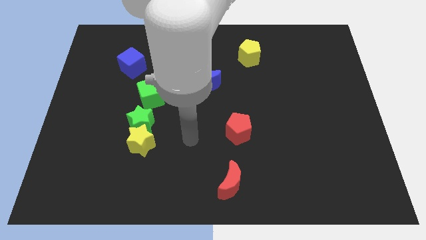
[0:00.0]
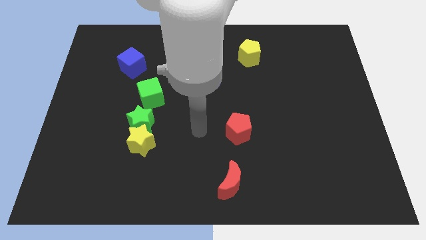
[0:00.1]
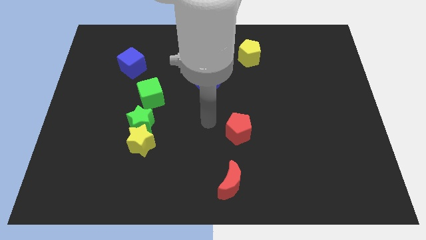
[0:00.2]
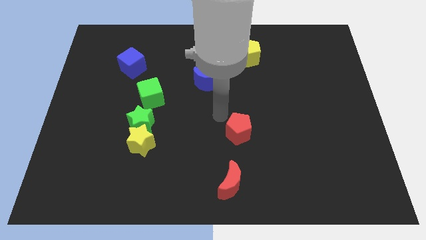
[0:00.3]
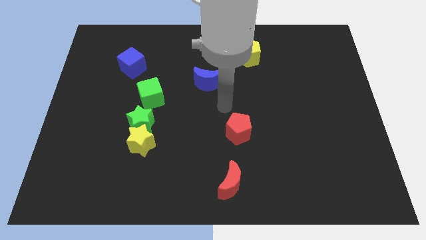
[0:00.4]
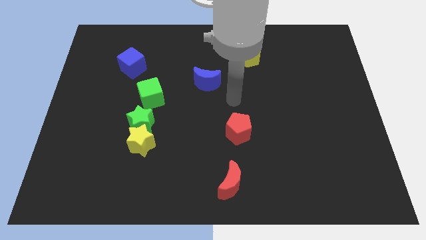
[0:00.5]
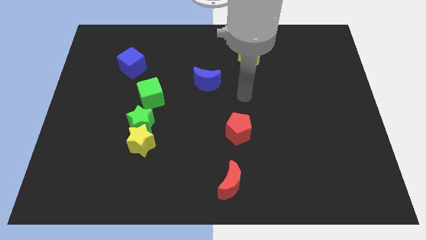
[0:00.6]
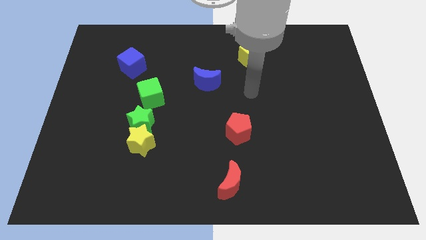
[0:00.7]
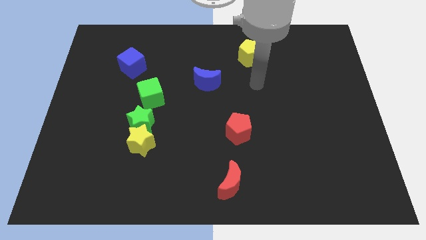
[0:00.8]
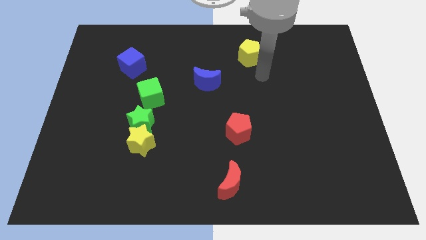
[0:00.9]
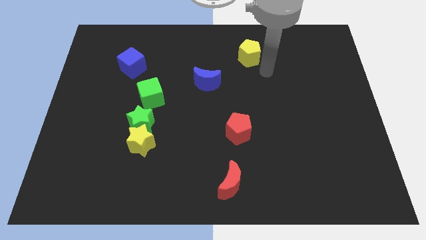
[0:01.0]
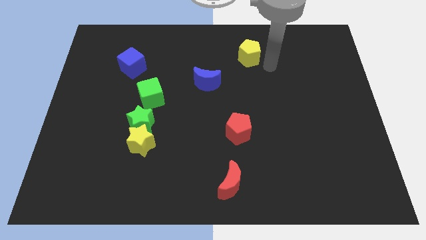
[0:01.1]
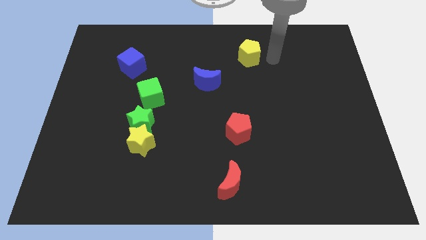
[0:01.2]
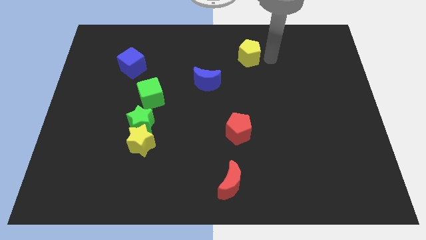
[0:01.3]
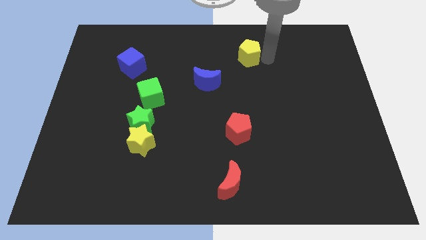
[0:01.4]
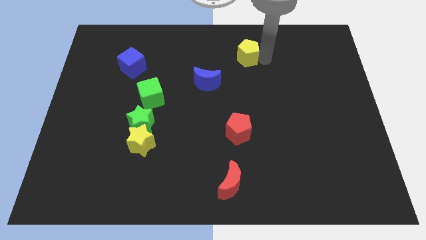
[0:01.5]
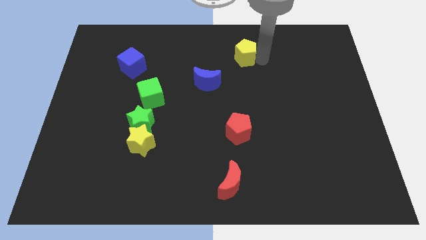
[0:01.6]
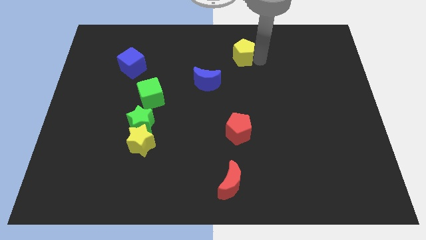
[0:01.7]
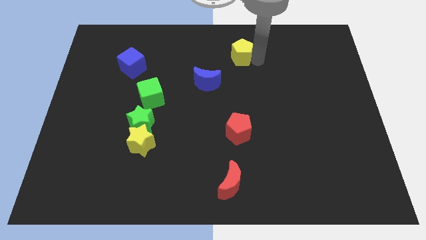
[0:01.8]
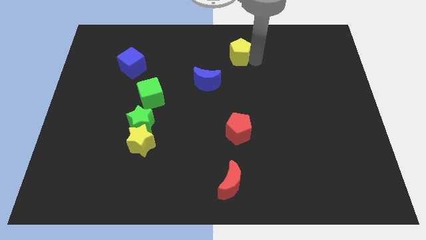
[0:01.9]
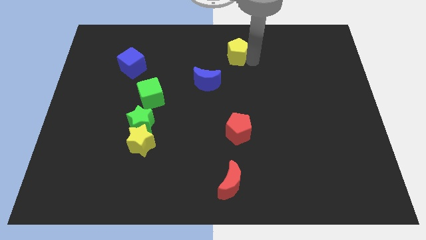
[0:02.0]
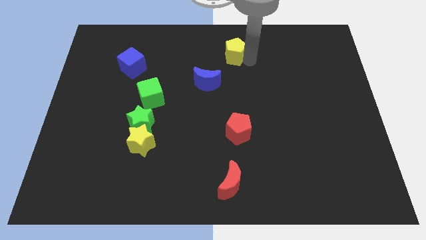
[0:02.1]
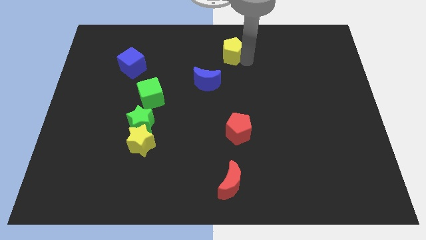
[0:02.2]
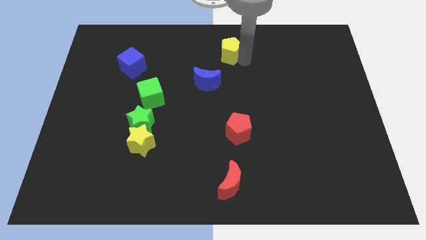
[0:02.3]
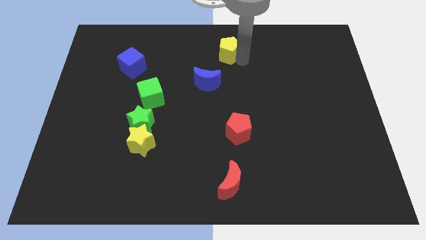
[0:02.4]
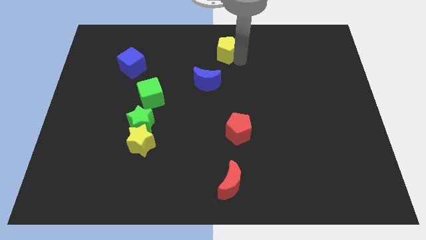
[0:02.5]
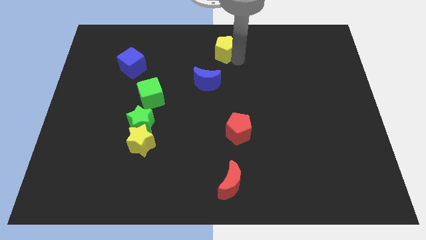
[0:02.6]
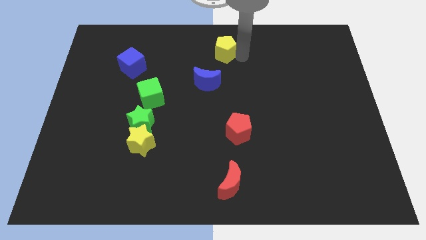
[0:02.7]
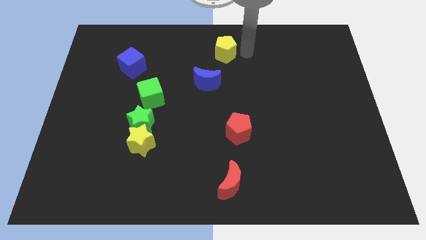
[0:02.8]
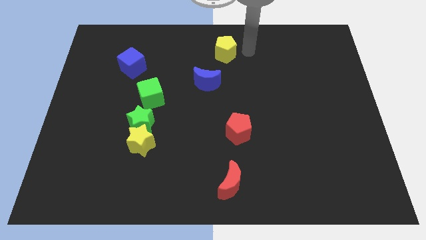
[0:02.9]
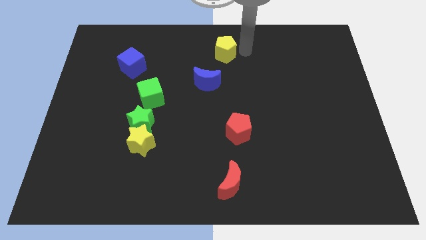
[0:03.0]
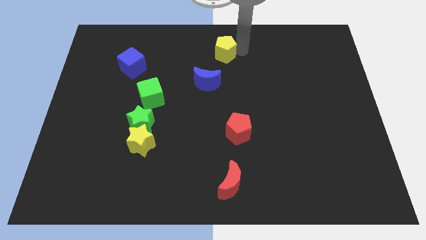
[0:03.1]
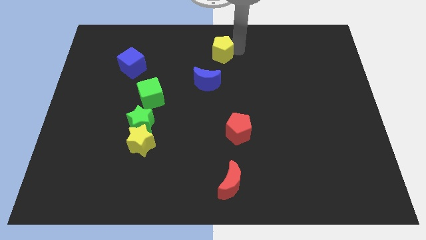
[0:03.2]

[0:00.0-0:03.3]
slightly slide the yellow pentagon left

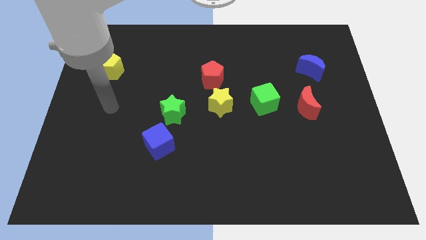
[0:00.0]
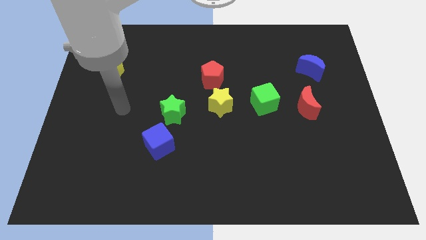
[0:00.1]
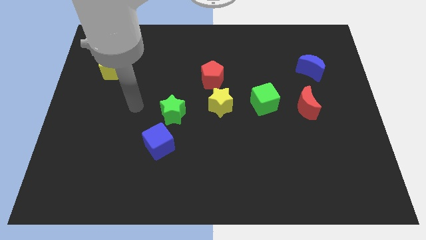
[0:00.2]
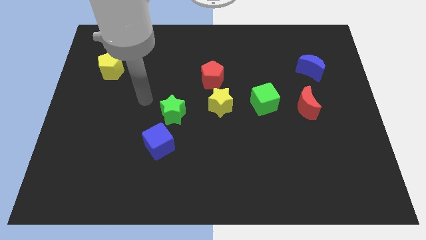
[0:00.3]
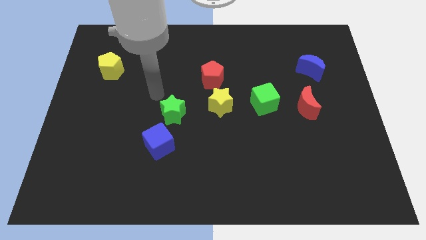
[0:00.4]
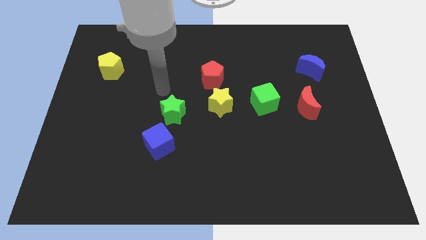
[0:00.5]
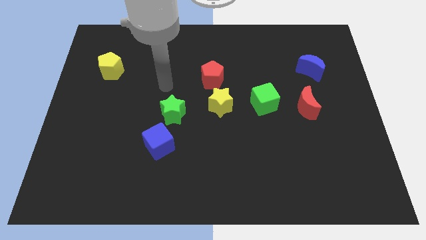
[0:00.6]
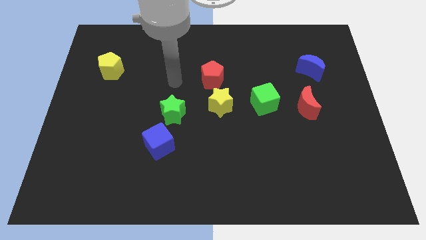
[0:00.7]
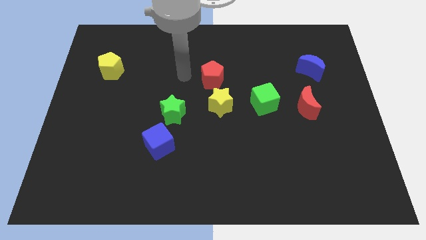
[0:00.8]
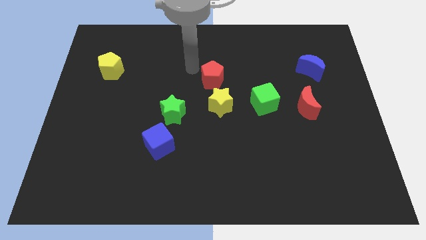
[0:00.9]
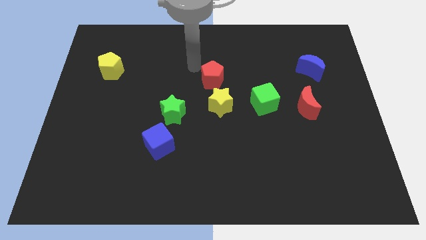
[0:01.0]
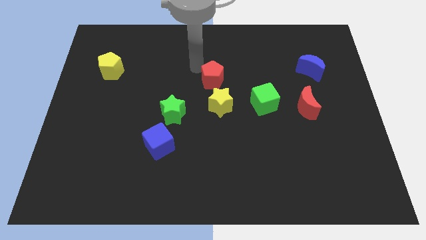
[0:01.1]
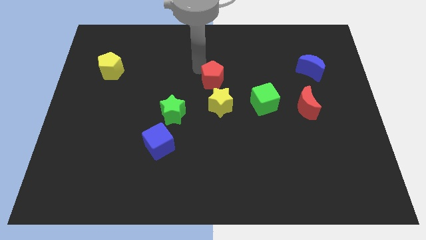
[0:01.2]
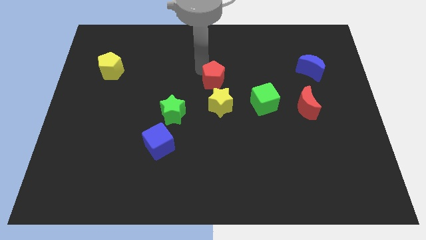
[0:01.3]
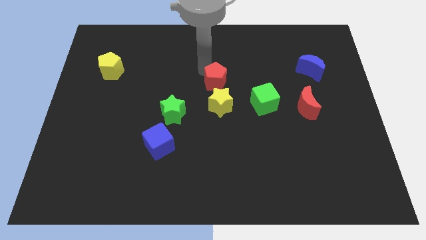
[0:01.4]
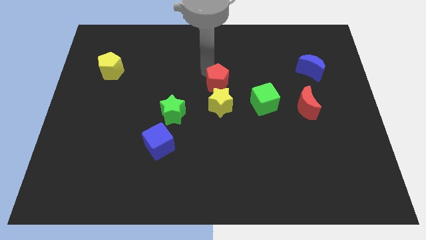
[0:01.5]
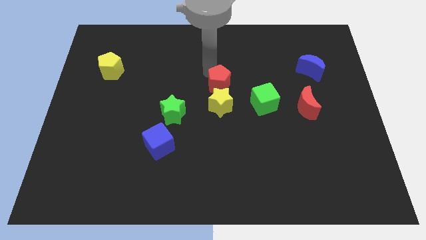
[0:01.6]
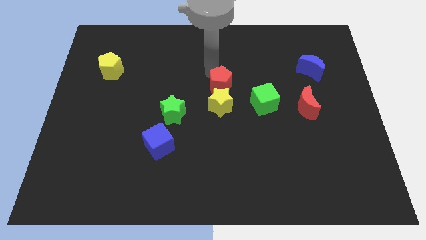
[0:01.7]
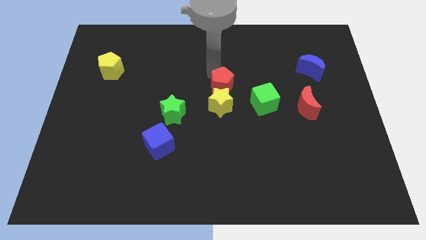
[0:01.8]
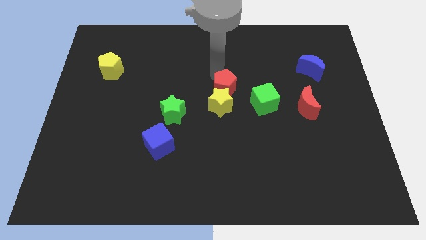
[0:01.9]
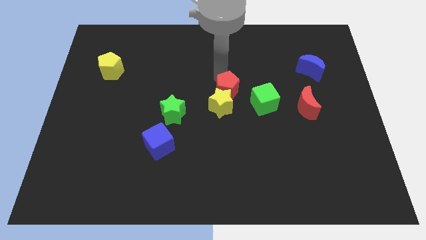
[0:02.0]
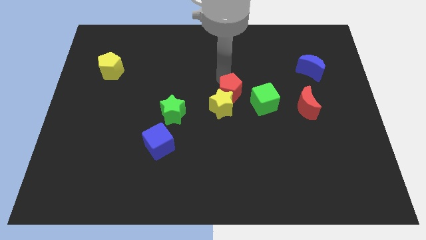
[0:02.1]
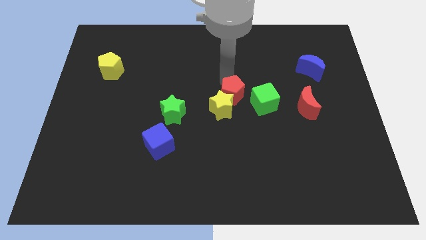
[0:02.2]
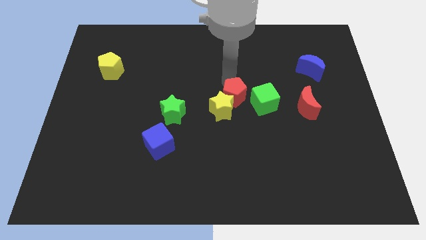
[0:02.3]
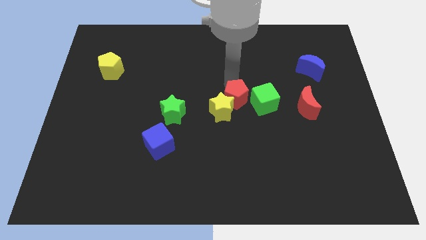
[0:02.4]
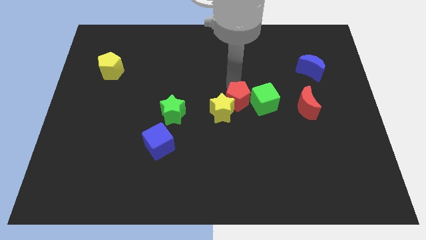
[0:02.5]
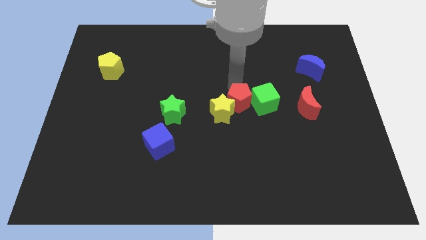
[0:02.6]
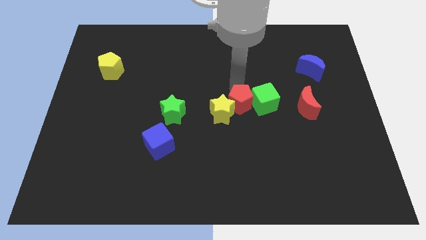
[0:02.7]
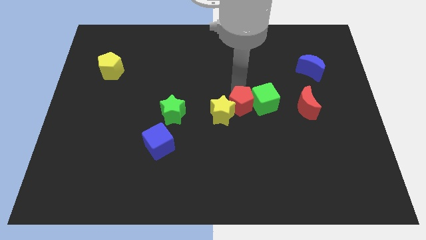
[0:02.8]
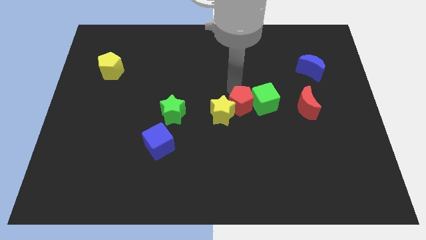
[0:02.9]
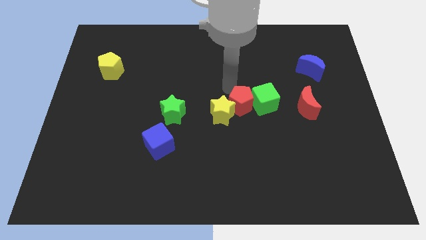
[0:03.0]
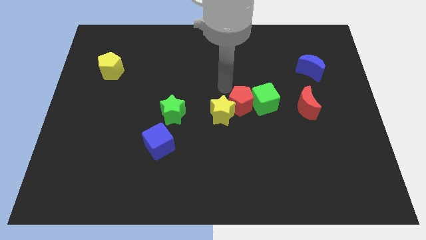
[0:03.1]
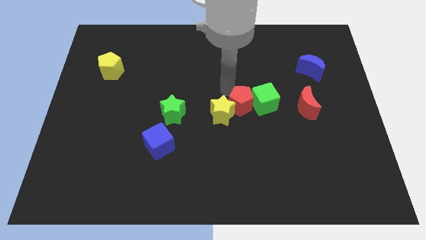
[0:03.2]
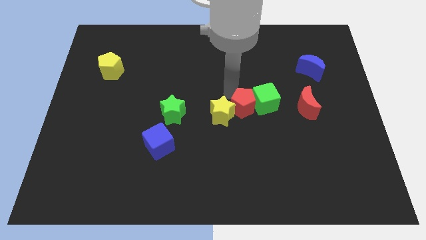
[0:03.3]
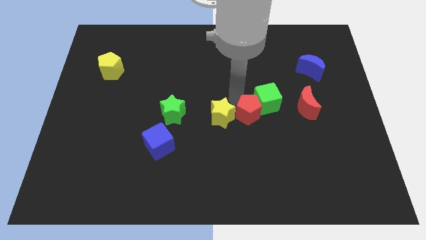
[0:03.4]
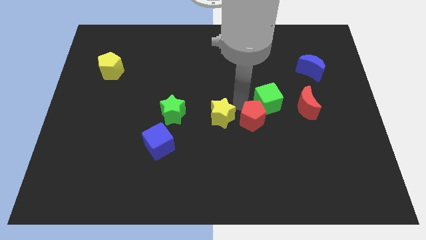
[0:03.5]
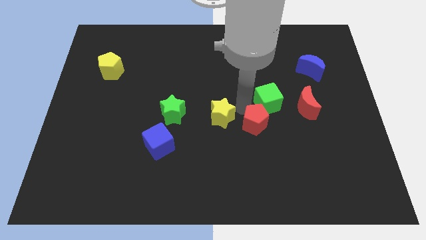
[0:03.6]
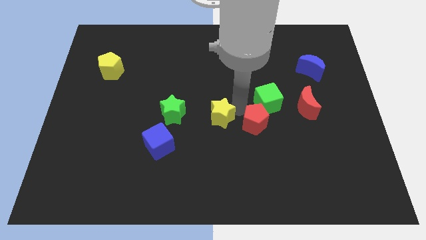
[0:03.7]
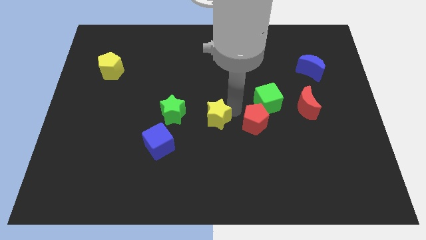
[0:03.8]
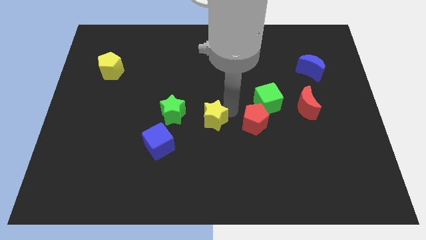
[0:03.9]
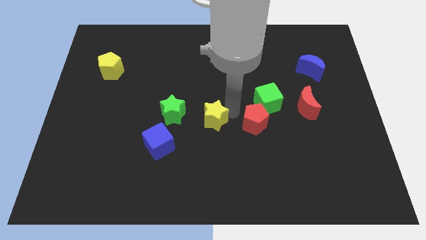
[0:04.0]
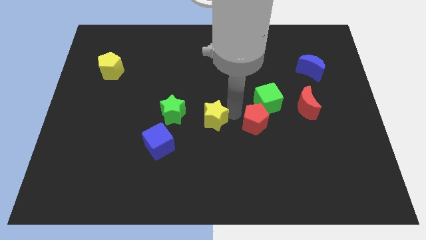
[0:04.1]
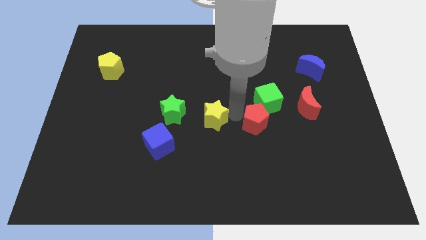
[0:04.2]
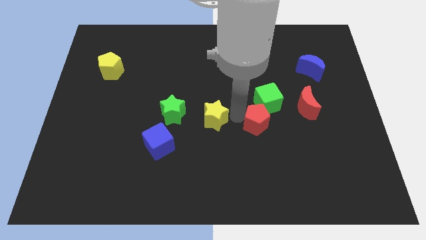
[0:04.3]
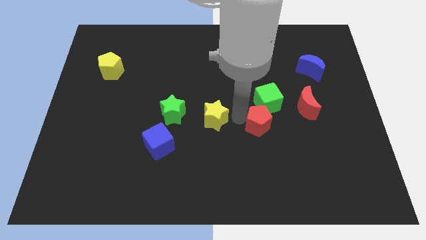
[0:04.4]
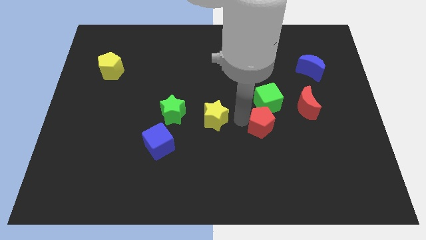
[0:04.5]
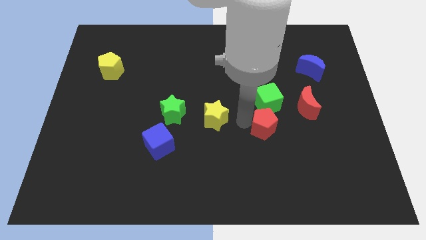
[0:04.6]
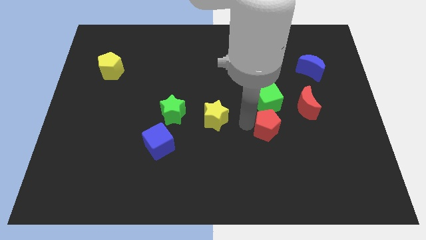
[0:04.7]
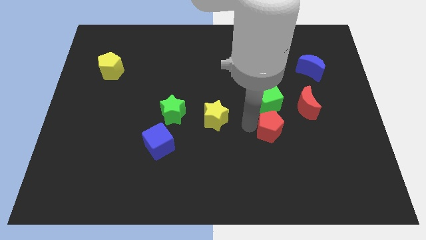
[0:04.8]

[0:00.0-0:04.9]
move the red pentagon downwards and then right
